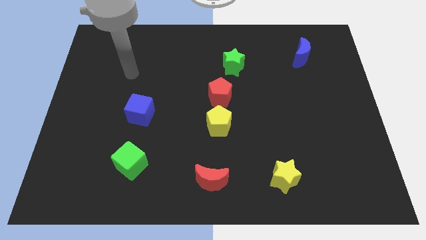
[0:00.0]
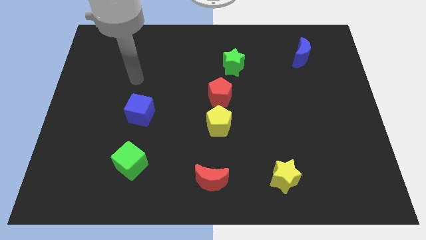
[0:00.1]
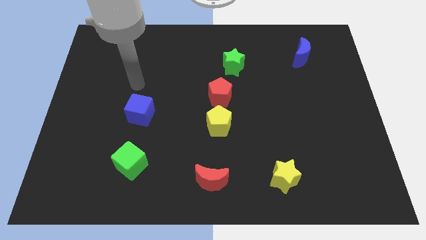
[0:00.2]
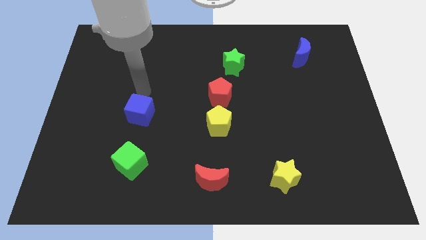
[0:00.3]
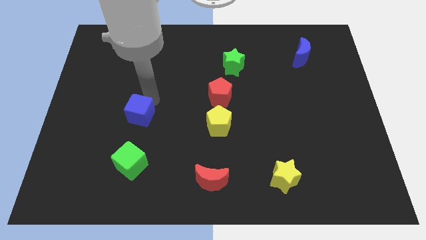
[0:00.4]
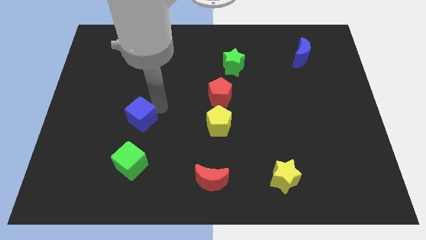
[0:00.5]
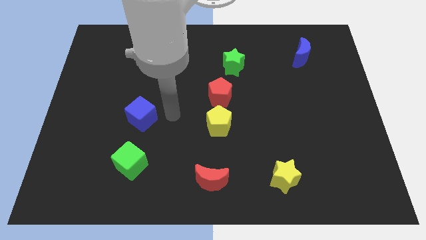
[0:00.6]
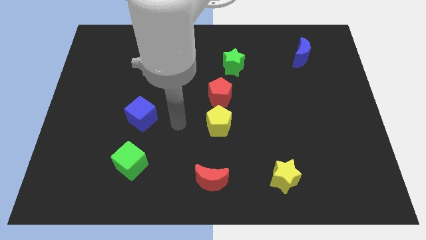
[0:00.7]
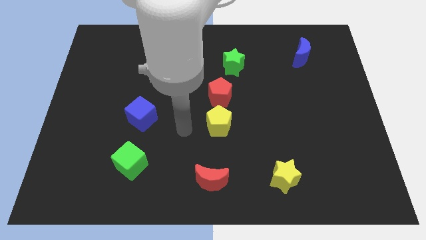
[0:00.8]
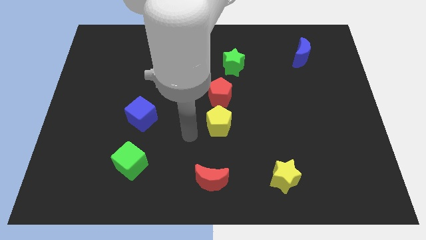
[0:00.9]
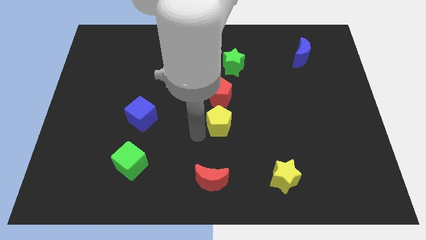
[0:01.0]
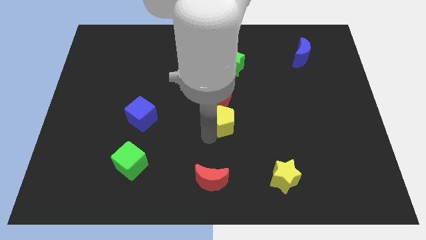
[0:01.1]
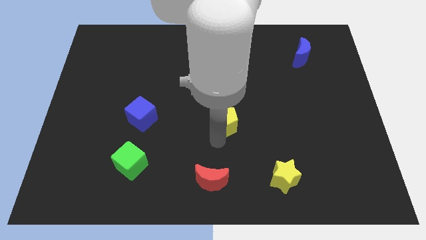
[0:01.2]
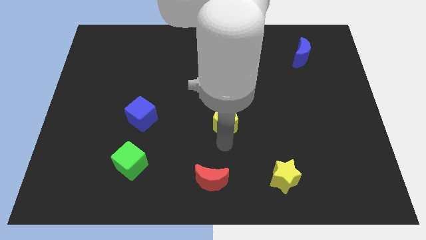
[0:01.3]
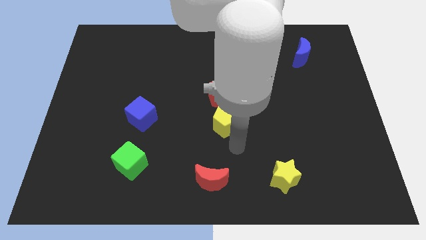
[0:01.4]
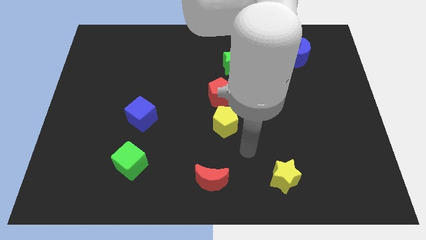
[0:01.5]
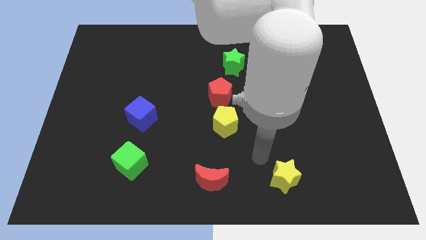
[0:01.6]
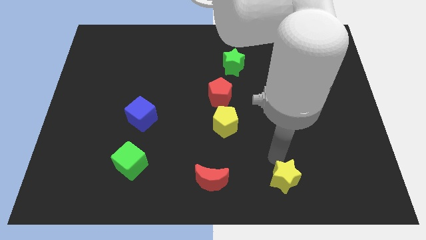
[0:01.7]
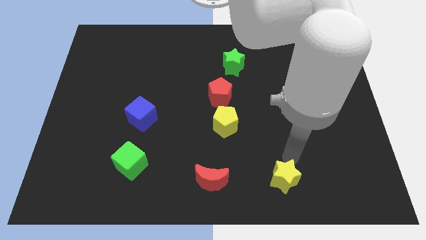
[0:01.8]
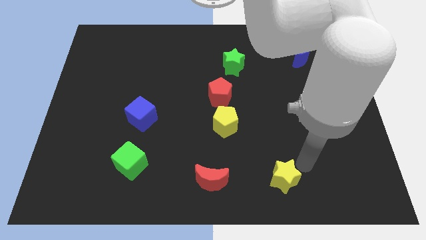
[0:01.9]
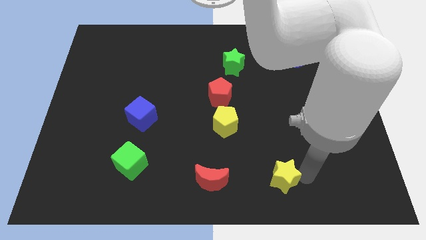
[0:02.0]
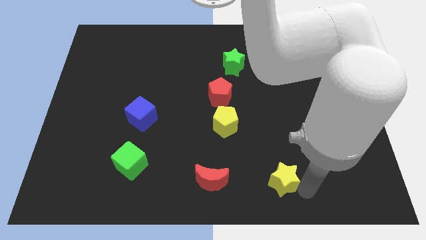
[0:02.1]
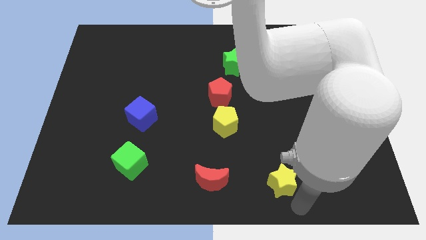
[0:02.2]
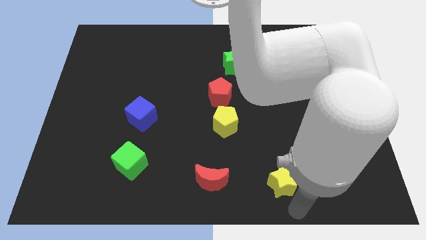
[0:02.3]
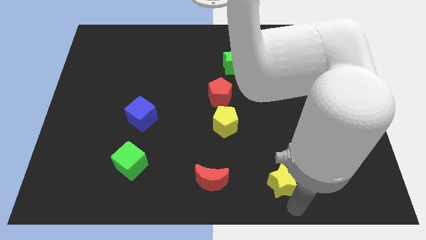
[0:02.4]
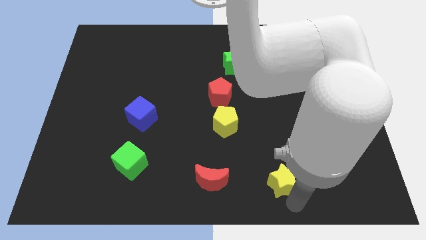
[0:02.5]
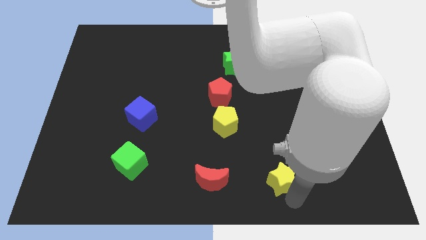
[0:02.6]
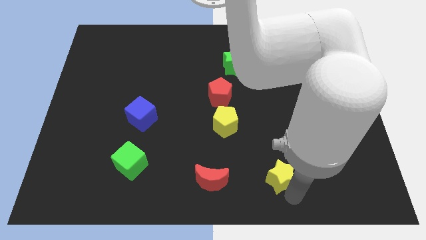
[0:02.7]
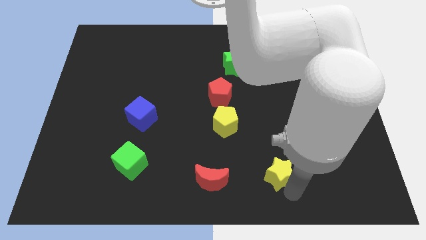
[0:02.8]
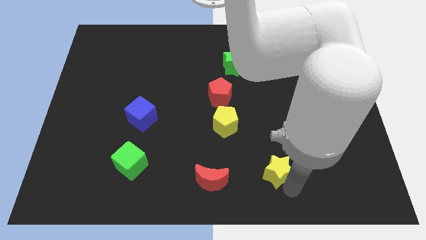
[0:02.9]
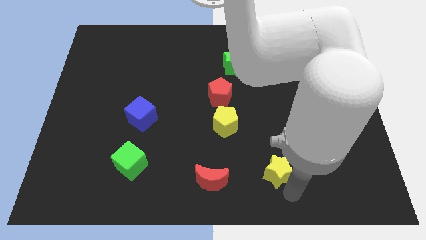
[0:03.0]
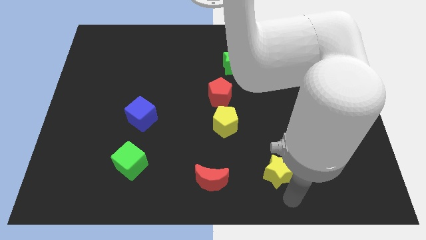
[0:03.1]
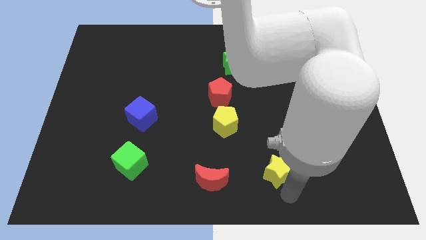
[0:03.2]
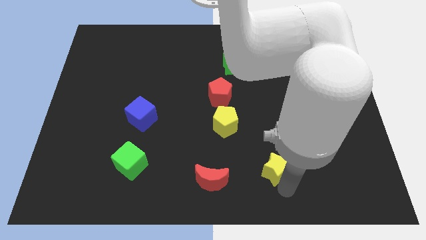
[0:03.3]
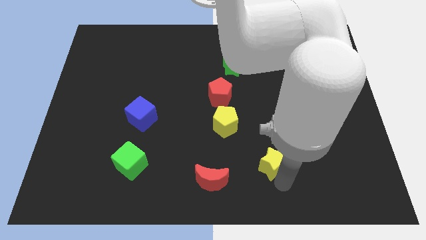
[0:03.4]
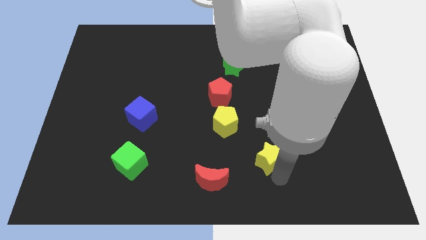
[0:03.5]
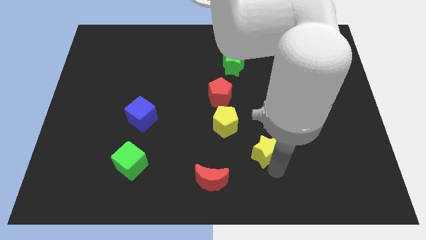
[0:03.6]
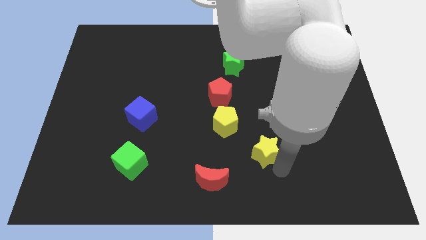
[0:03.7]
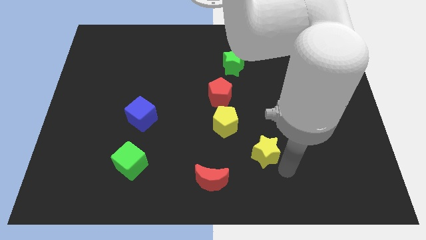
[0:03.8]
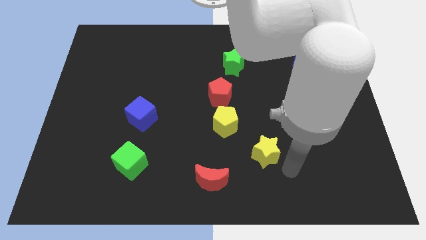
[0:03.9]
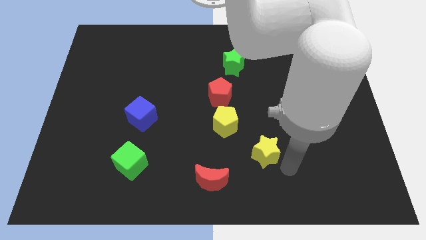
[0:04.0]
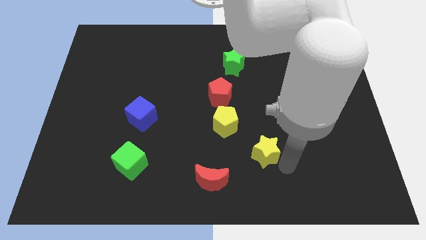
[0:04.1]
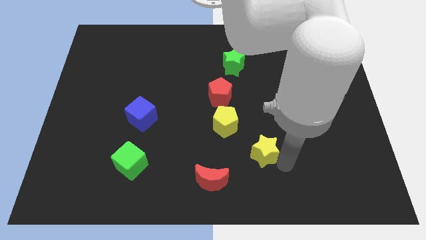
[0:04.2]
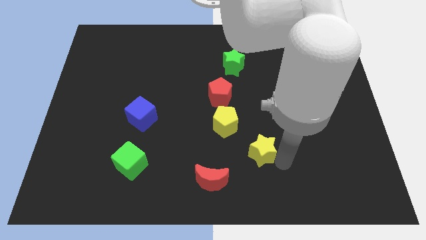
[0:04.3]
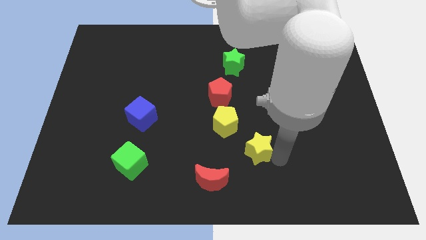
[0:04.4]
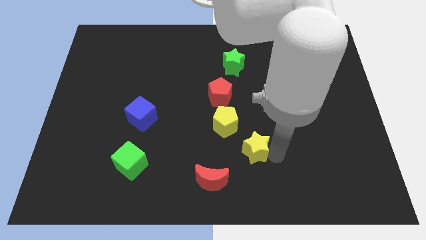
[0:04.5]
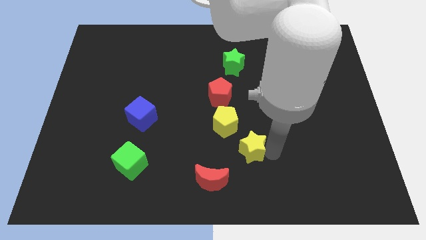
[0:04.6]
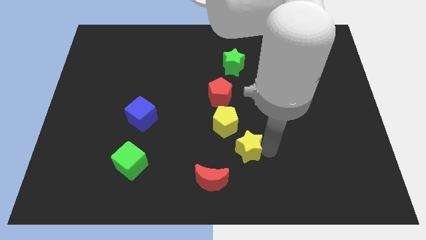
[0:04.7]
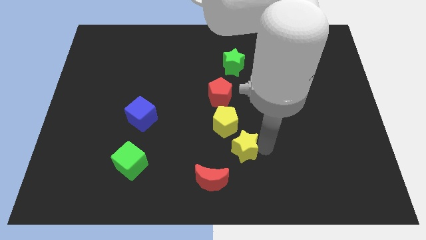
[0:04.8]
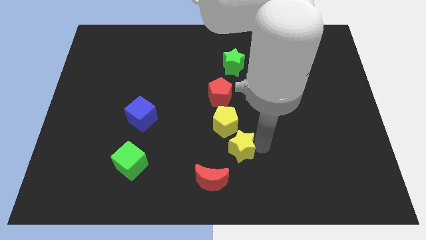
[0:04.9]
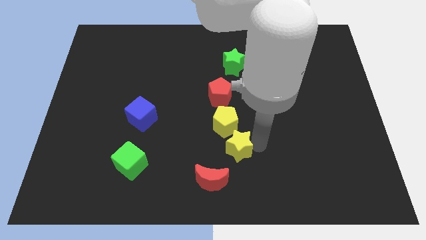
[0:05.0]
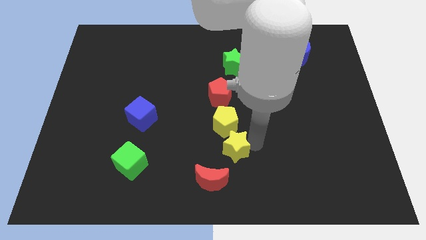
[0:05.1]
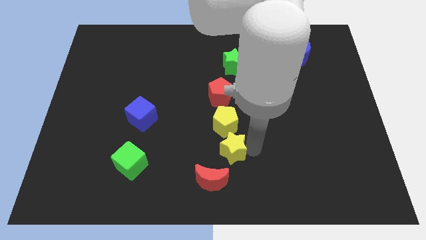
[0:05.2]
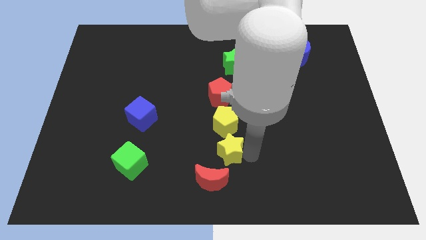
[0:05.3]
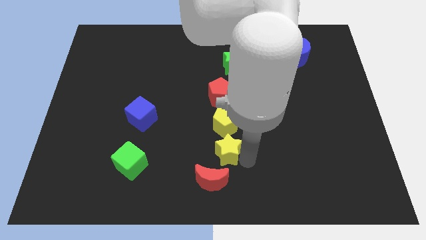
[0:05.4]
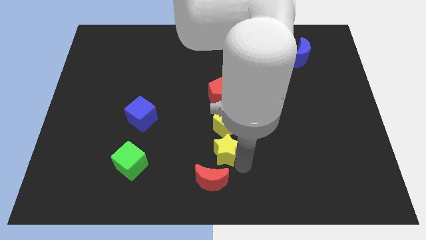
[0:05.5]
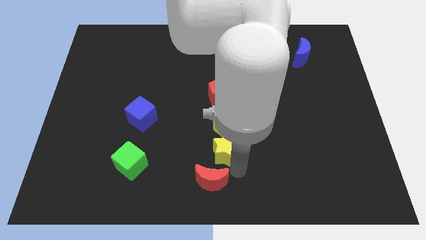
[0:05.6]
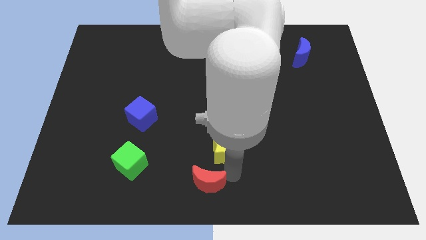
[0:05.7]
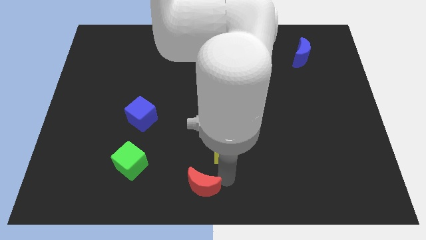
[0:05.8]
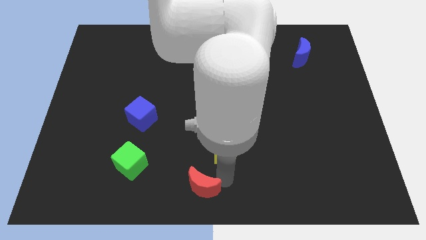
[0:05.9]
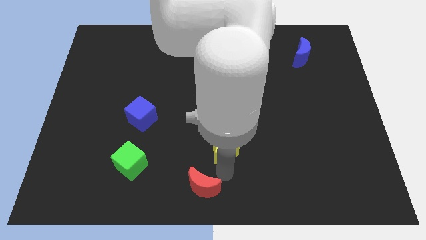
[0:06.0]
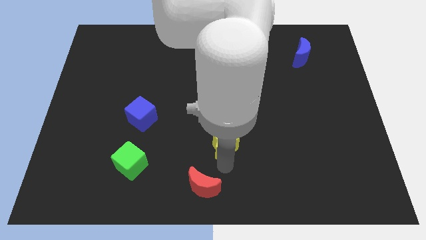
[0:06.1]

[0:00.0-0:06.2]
move the yellow star next to the yellow pentagon

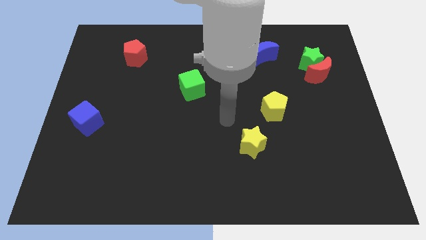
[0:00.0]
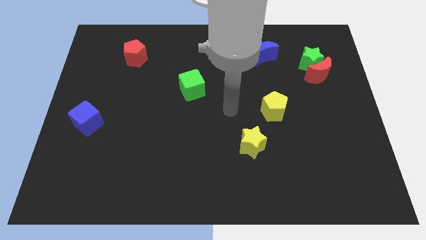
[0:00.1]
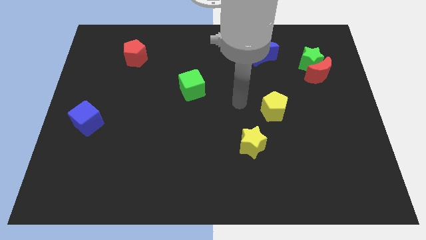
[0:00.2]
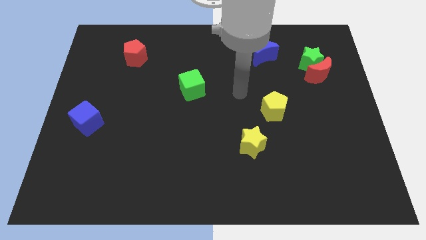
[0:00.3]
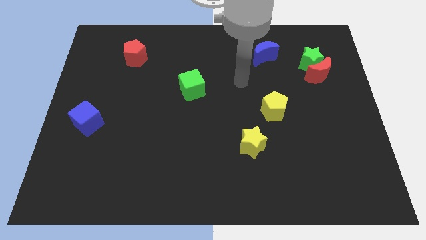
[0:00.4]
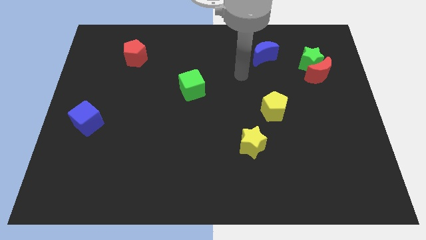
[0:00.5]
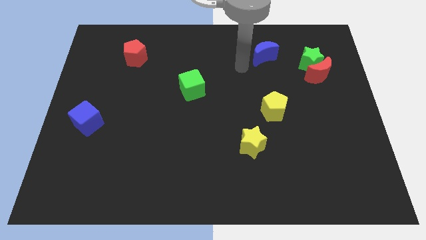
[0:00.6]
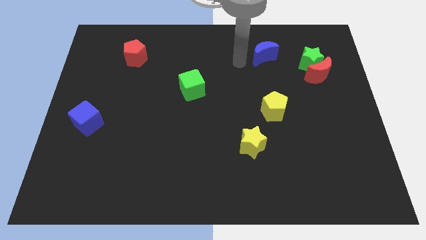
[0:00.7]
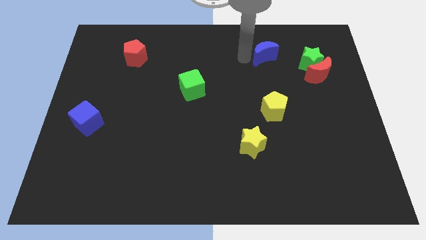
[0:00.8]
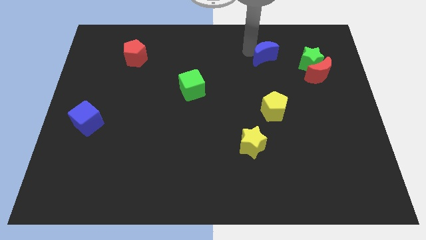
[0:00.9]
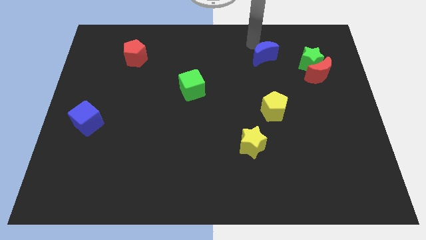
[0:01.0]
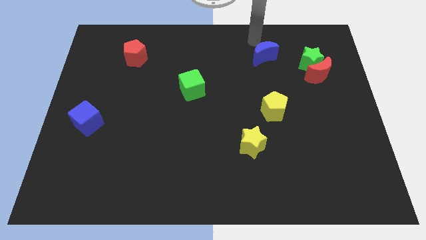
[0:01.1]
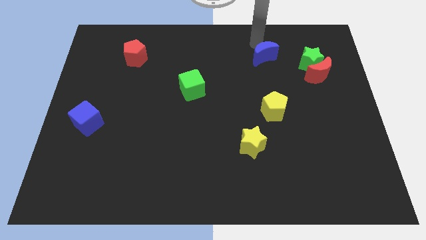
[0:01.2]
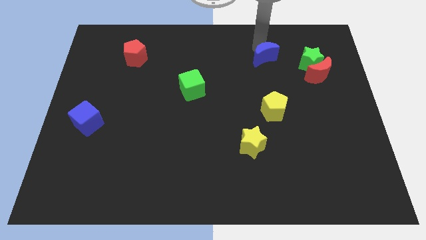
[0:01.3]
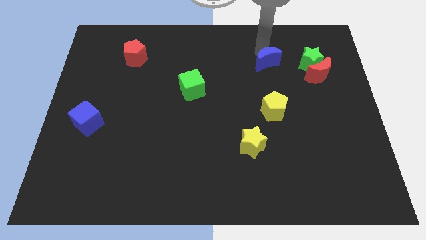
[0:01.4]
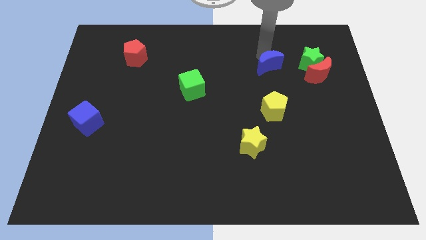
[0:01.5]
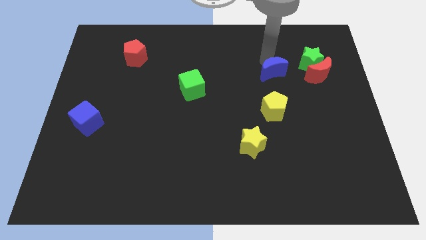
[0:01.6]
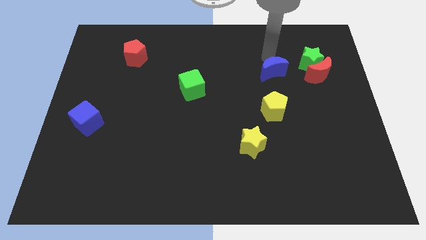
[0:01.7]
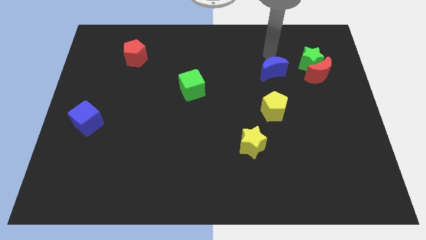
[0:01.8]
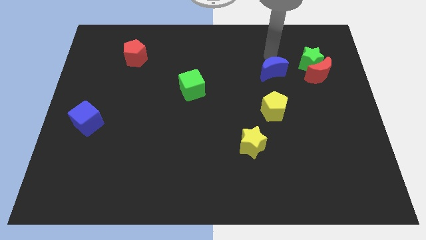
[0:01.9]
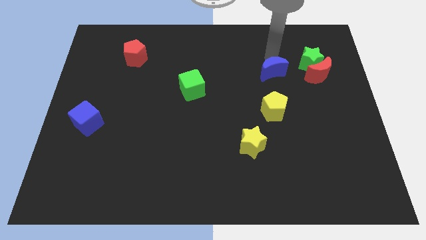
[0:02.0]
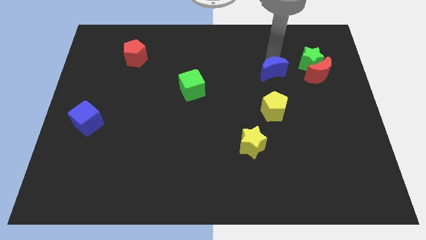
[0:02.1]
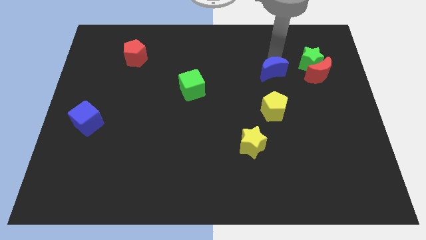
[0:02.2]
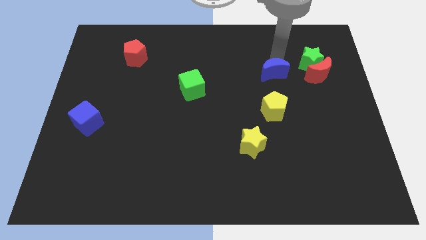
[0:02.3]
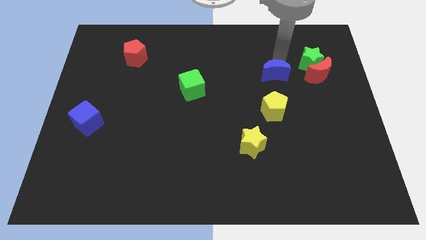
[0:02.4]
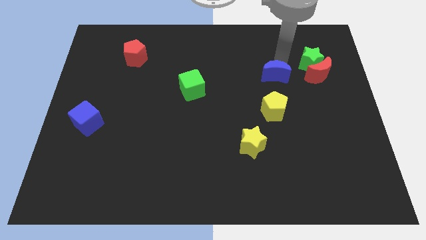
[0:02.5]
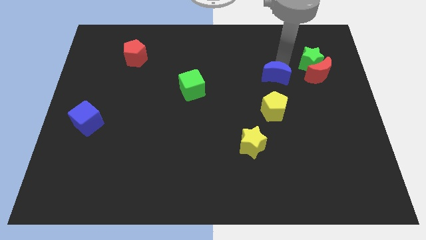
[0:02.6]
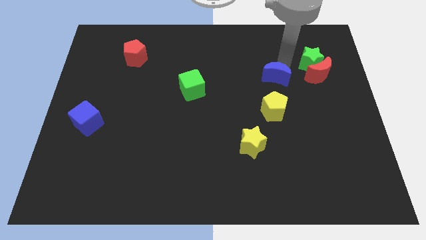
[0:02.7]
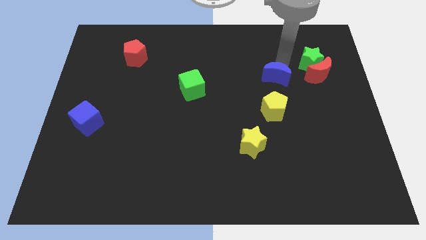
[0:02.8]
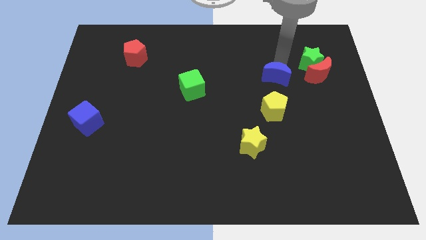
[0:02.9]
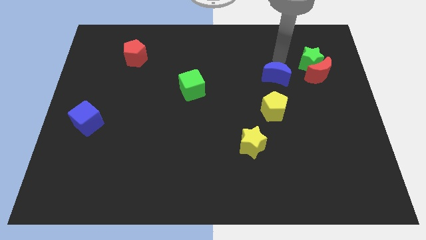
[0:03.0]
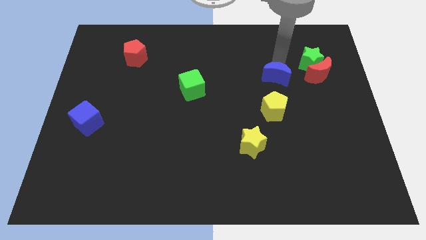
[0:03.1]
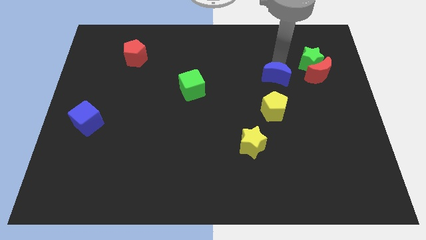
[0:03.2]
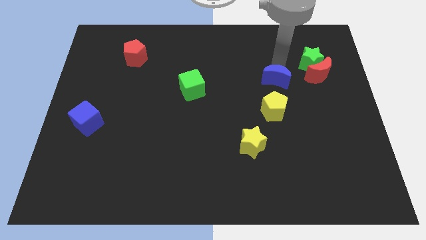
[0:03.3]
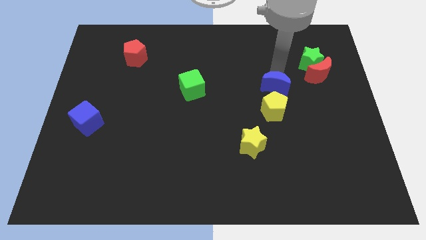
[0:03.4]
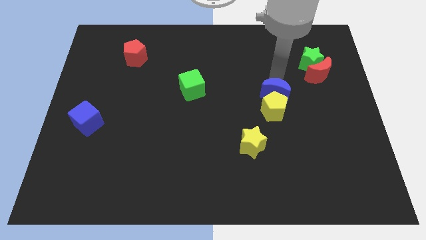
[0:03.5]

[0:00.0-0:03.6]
push the blue moon towards the yellow pentagon
